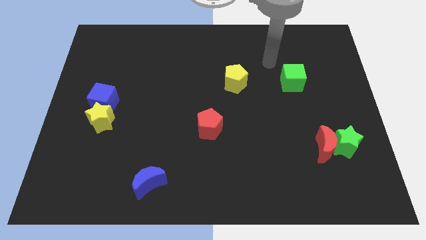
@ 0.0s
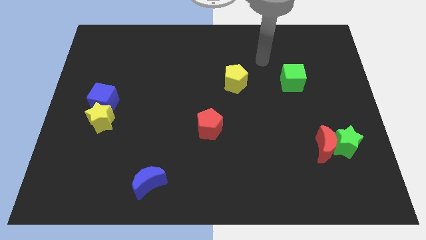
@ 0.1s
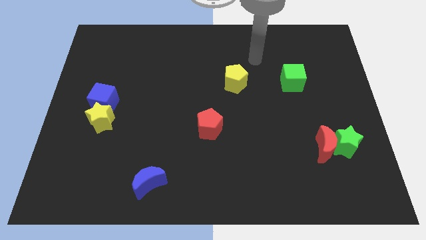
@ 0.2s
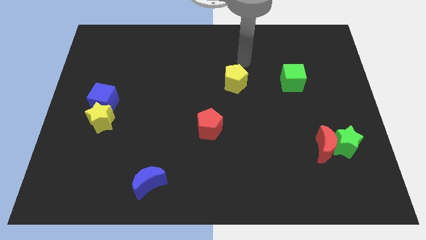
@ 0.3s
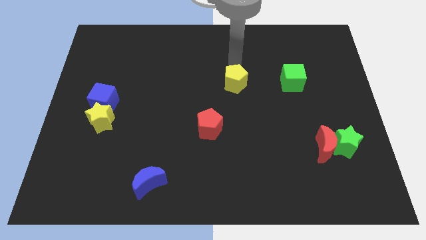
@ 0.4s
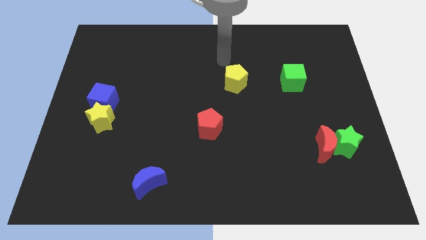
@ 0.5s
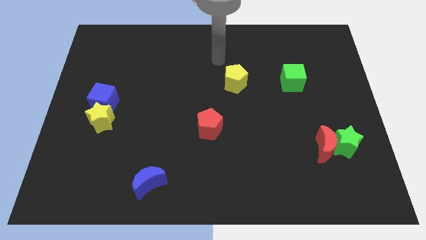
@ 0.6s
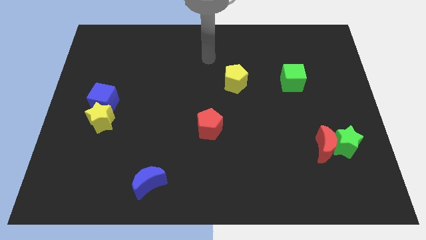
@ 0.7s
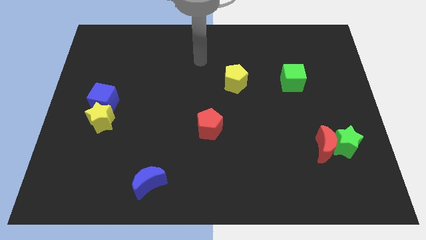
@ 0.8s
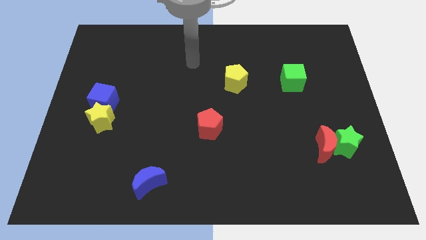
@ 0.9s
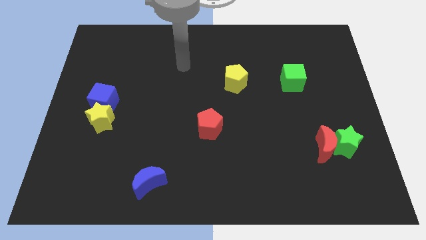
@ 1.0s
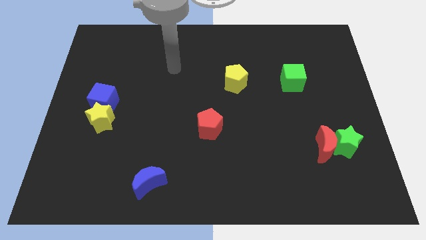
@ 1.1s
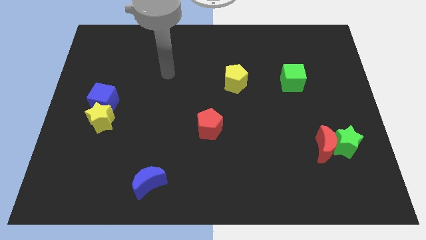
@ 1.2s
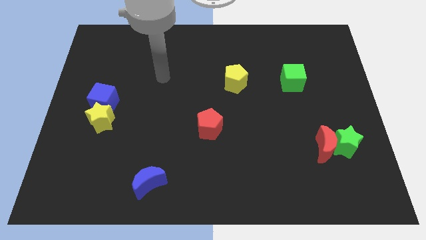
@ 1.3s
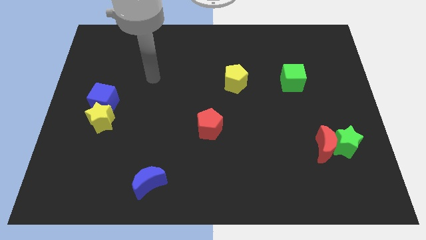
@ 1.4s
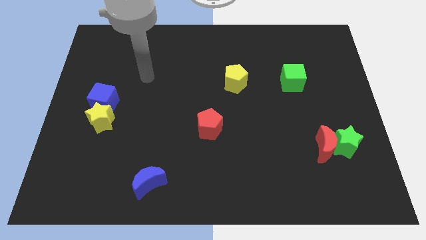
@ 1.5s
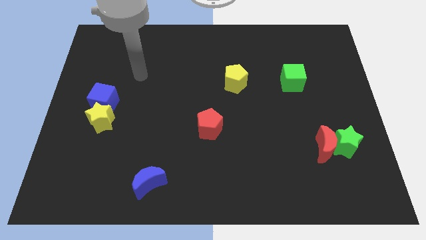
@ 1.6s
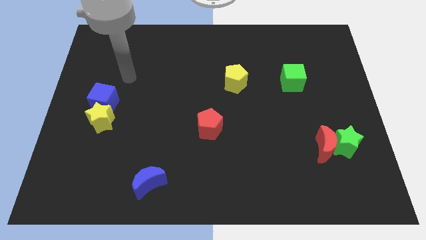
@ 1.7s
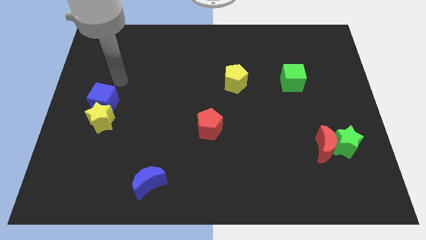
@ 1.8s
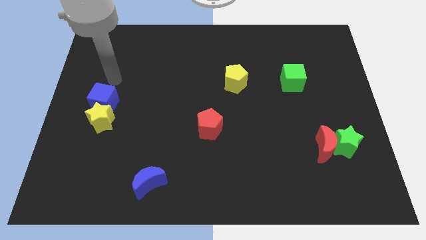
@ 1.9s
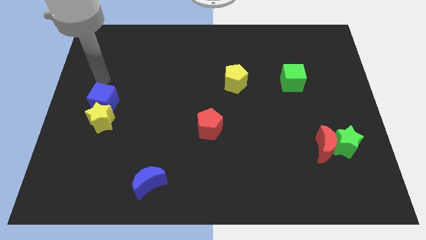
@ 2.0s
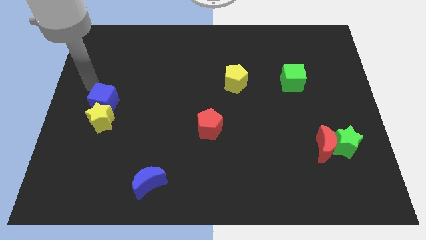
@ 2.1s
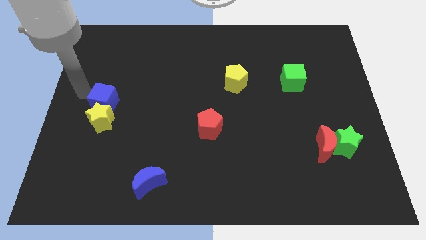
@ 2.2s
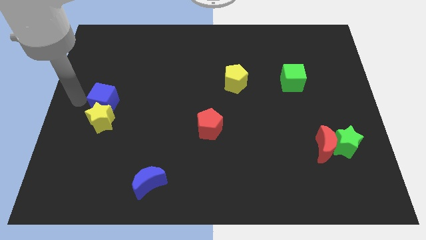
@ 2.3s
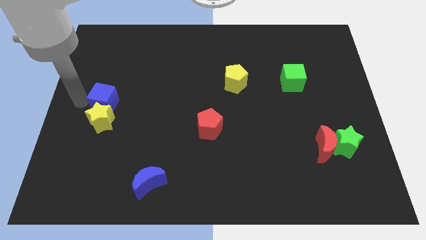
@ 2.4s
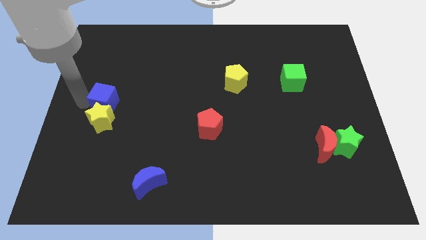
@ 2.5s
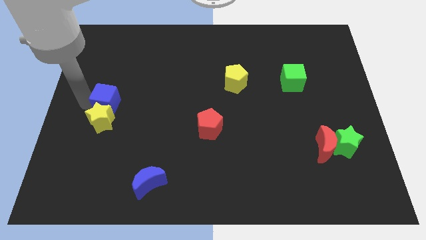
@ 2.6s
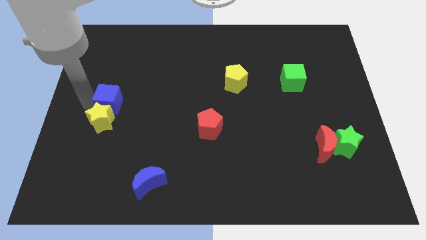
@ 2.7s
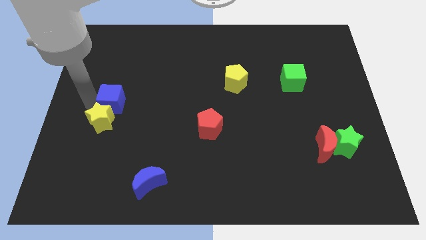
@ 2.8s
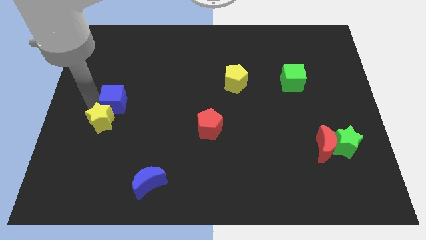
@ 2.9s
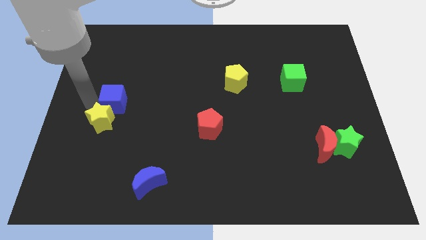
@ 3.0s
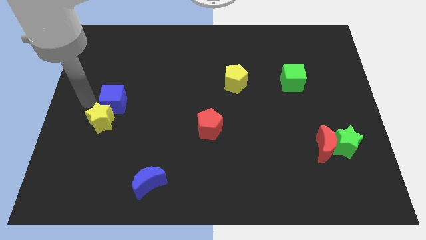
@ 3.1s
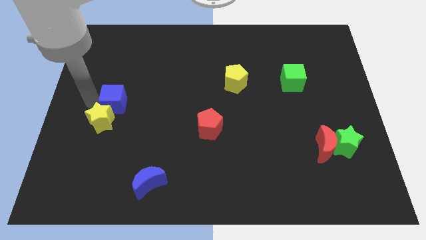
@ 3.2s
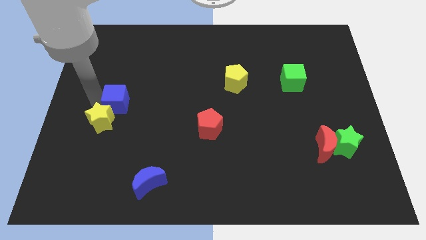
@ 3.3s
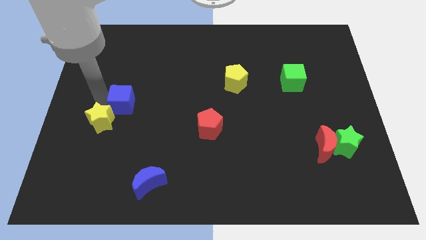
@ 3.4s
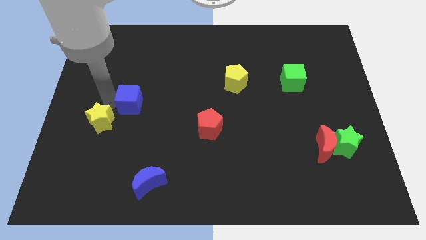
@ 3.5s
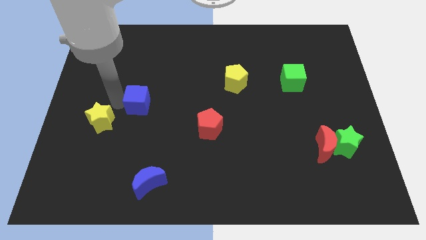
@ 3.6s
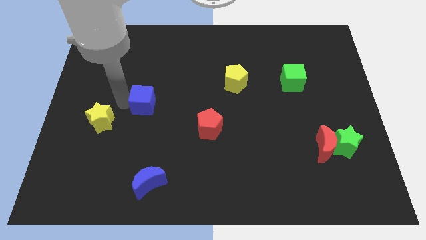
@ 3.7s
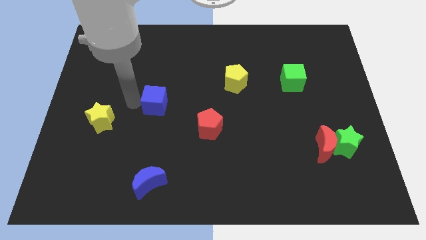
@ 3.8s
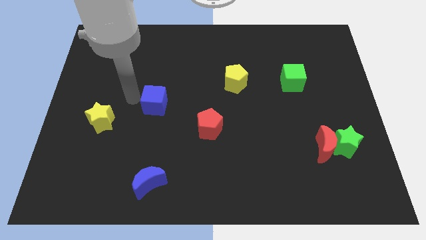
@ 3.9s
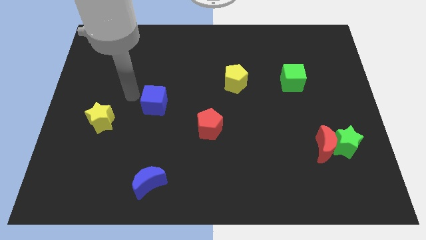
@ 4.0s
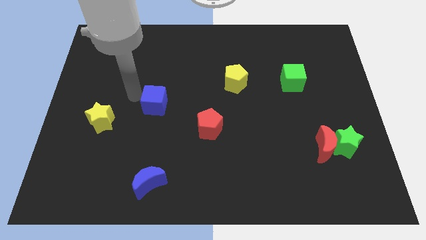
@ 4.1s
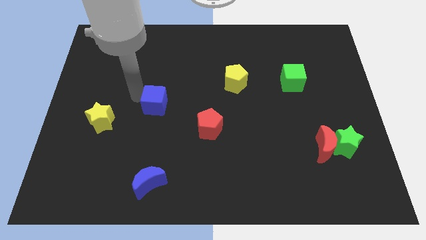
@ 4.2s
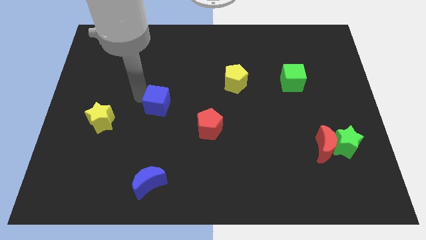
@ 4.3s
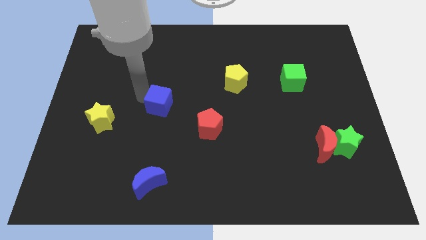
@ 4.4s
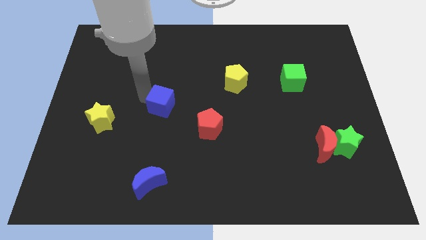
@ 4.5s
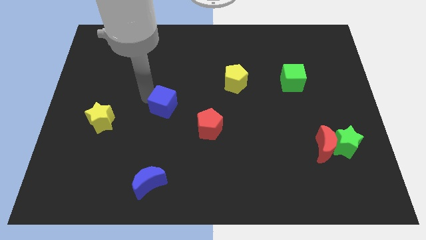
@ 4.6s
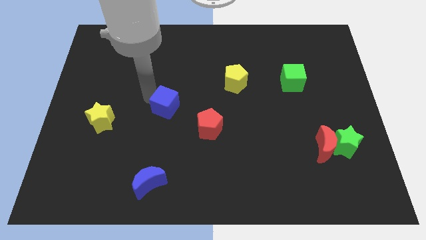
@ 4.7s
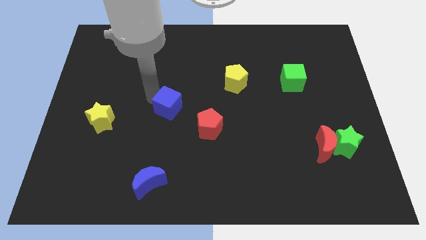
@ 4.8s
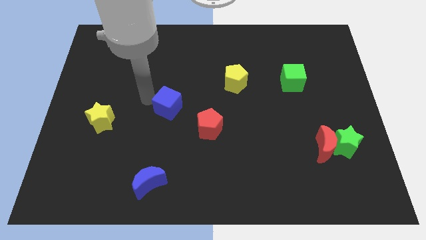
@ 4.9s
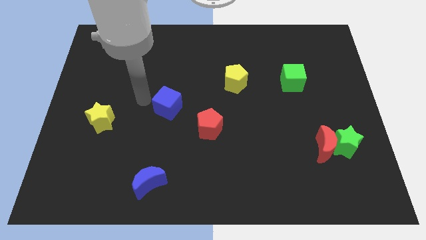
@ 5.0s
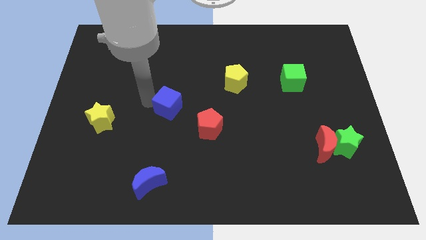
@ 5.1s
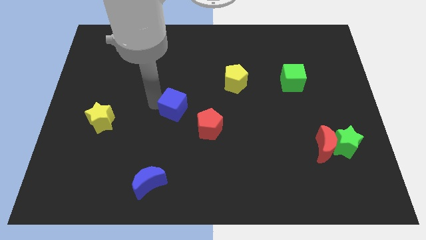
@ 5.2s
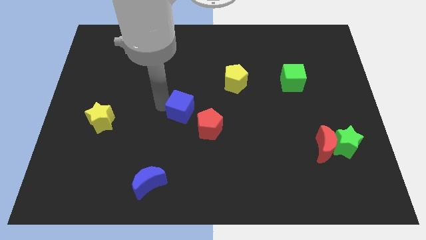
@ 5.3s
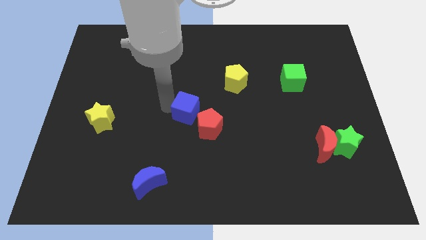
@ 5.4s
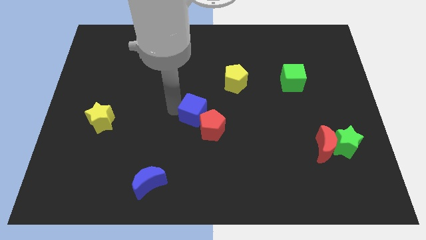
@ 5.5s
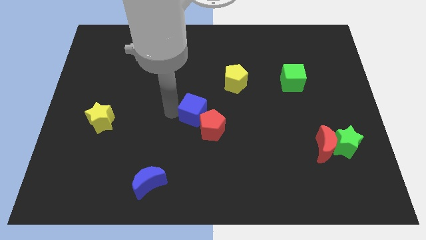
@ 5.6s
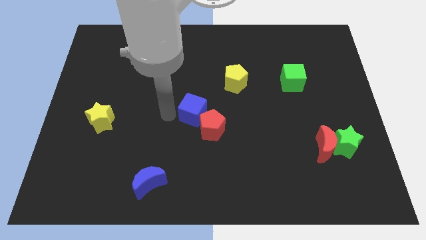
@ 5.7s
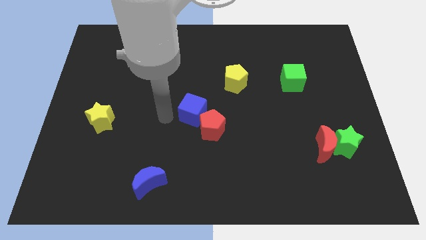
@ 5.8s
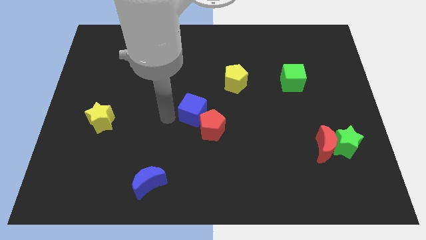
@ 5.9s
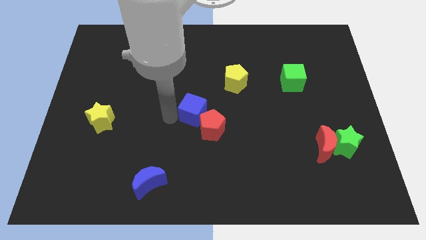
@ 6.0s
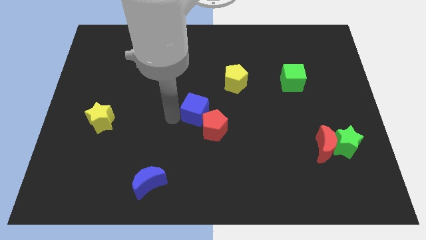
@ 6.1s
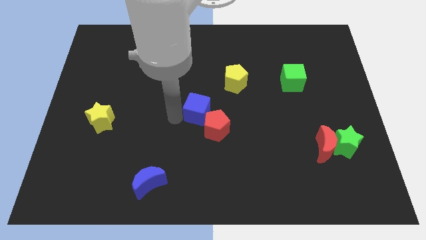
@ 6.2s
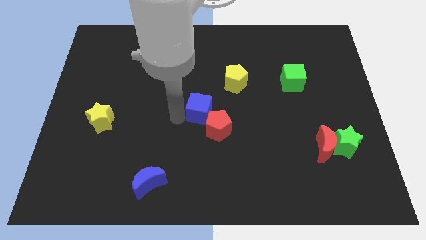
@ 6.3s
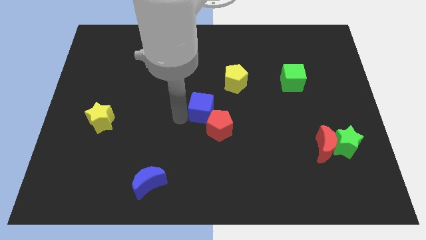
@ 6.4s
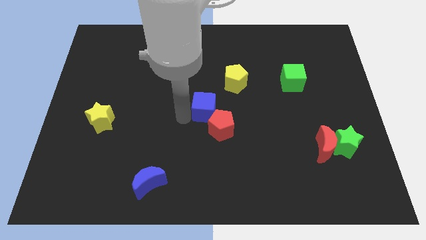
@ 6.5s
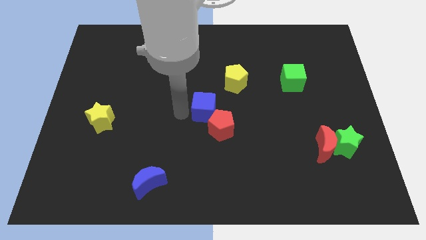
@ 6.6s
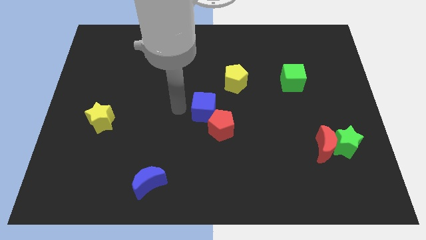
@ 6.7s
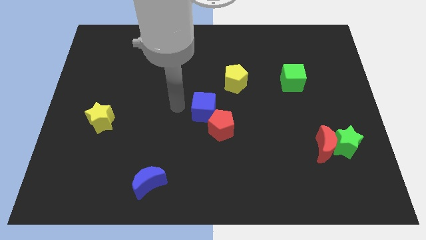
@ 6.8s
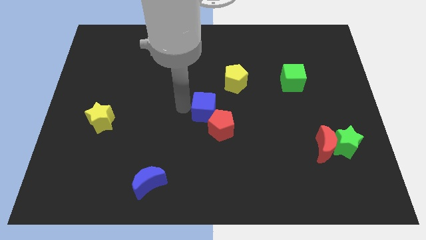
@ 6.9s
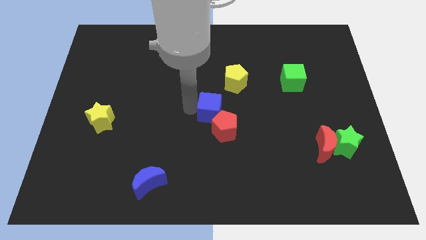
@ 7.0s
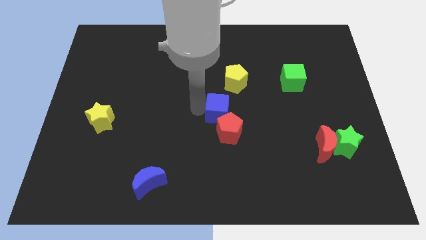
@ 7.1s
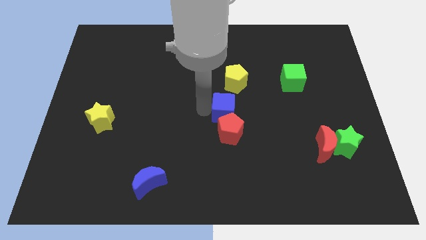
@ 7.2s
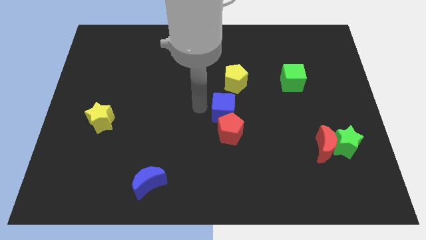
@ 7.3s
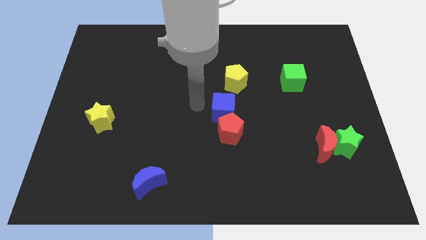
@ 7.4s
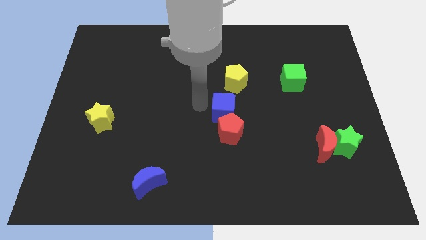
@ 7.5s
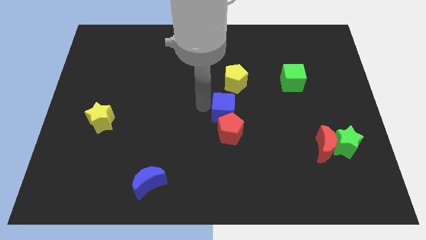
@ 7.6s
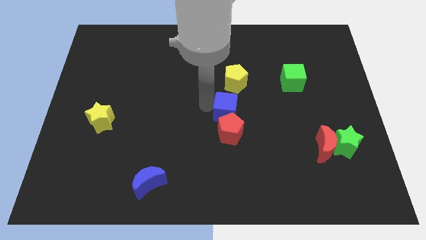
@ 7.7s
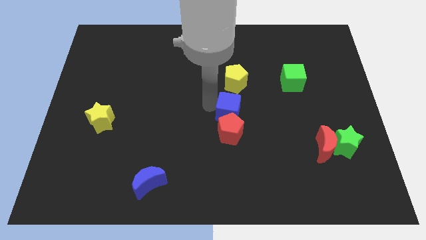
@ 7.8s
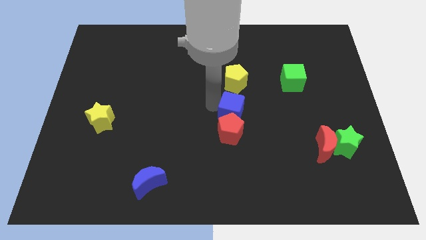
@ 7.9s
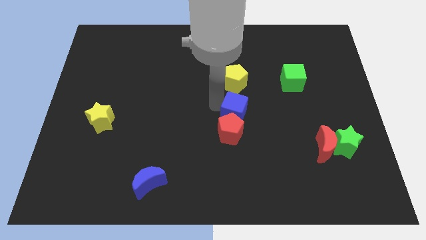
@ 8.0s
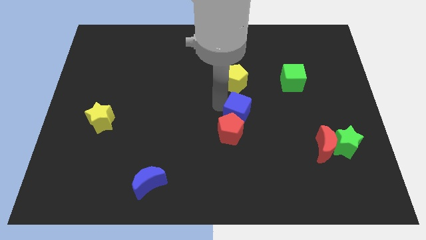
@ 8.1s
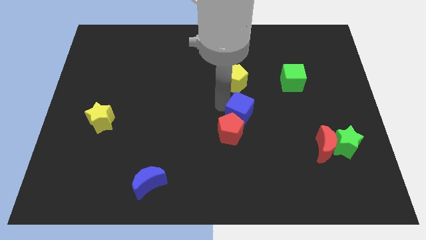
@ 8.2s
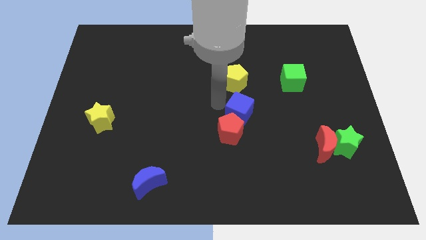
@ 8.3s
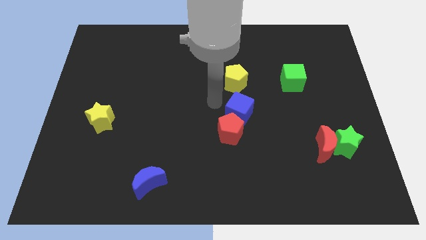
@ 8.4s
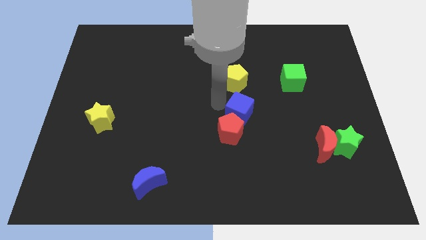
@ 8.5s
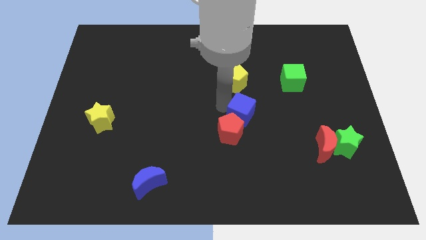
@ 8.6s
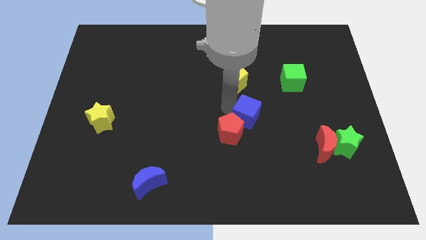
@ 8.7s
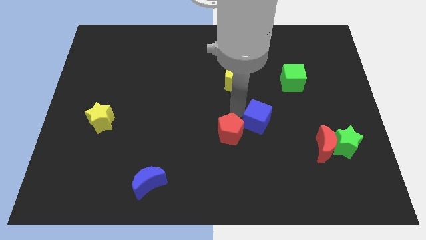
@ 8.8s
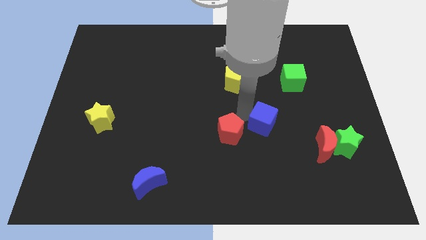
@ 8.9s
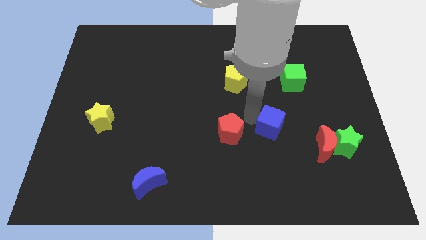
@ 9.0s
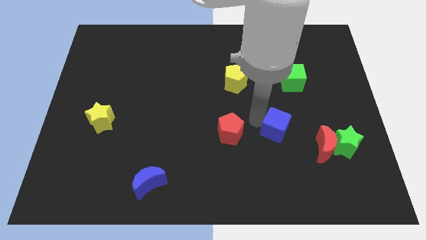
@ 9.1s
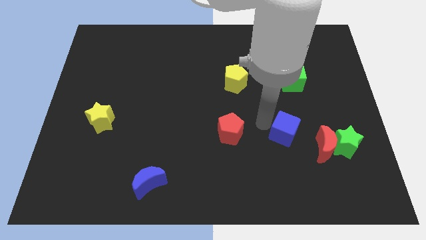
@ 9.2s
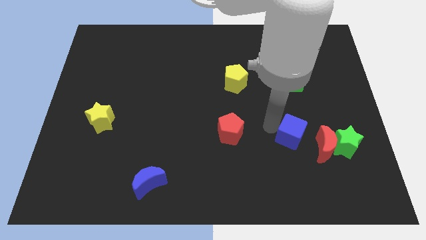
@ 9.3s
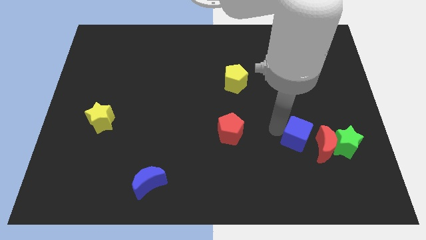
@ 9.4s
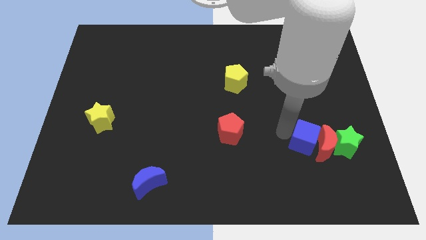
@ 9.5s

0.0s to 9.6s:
push the blue cube close to the red moon
